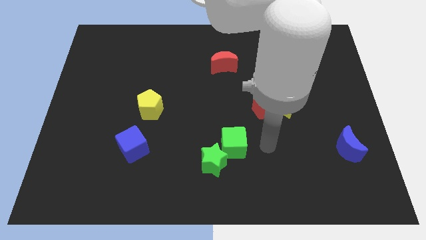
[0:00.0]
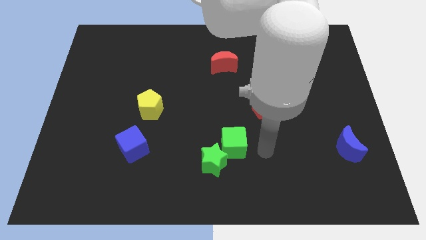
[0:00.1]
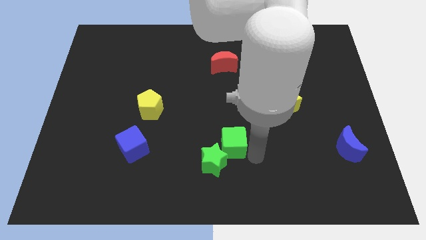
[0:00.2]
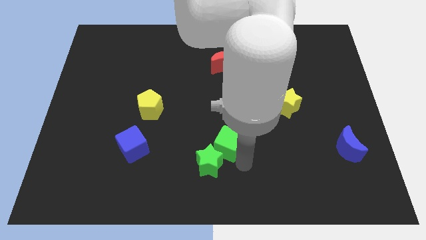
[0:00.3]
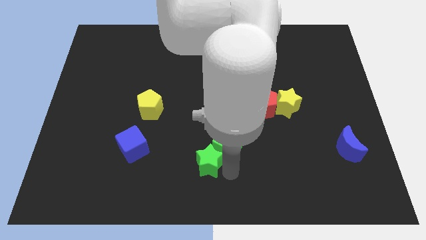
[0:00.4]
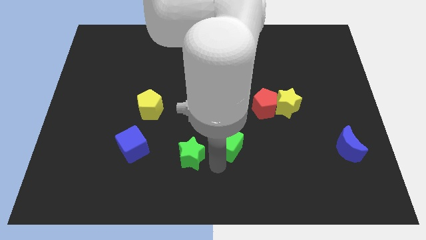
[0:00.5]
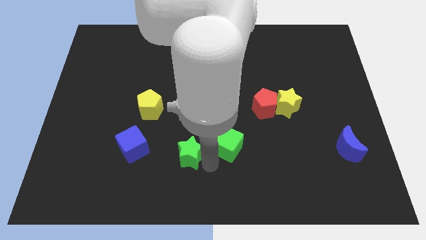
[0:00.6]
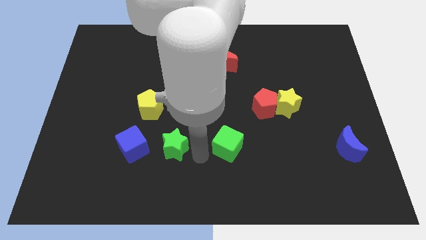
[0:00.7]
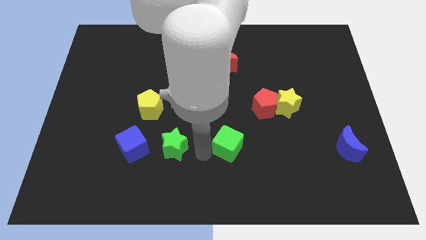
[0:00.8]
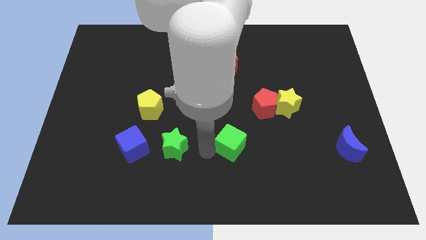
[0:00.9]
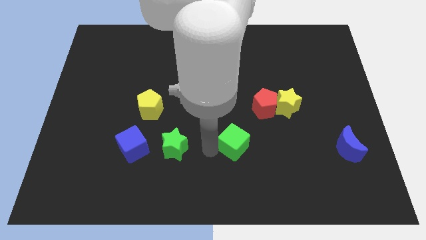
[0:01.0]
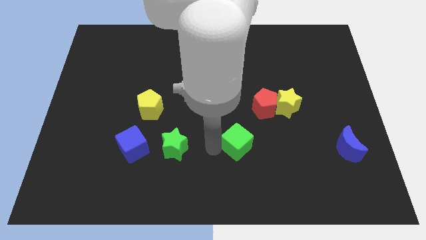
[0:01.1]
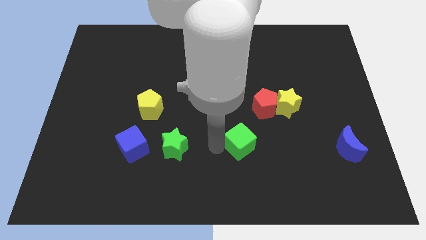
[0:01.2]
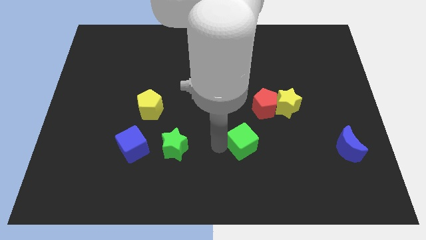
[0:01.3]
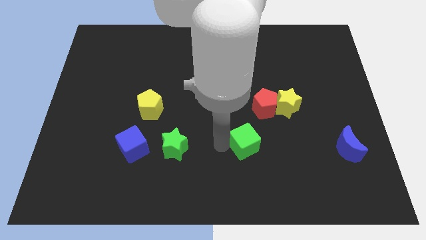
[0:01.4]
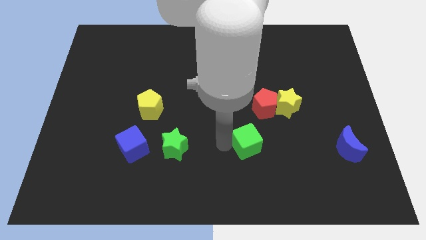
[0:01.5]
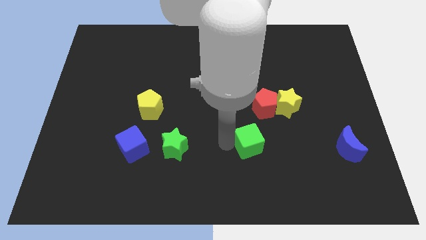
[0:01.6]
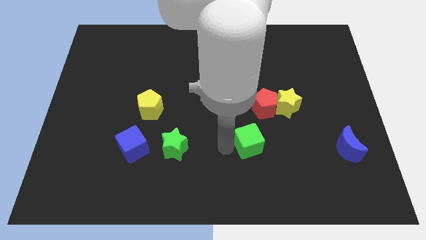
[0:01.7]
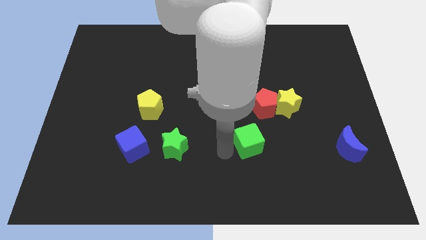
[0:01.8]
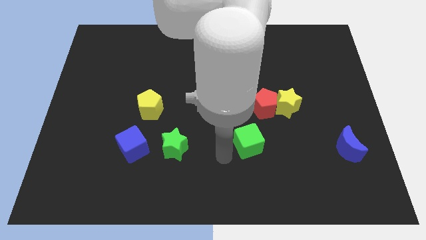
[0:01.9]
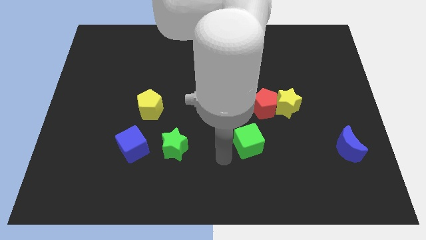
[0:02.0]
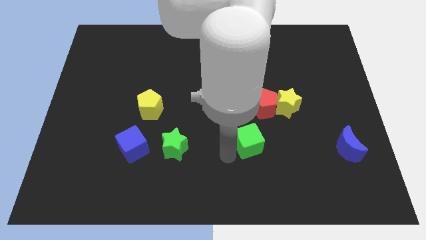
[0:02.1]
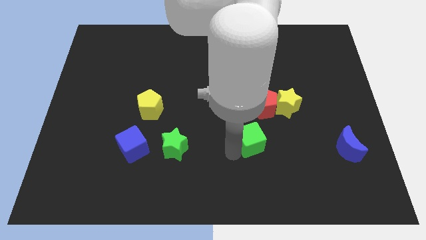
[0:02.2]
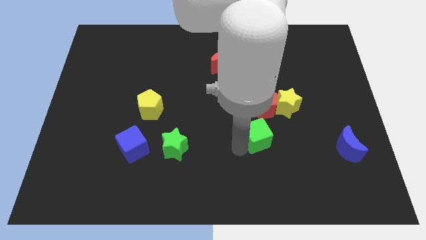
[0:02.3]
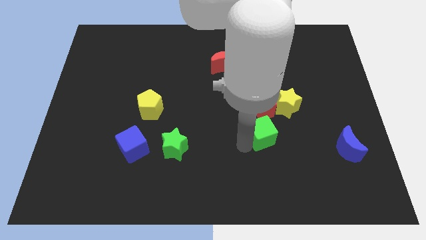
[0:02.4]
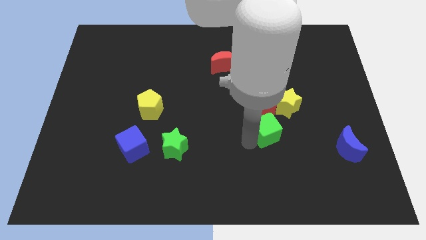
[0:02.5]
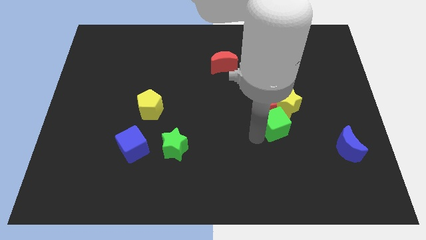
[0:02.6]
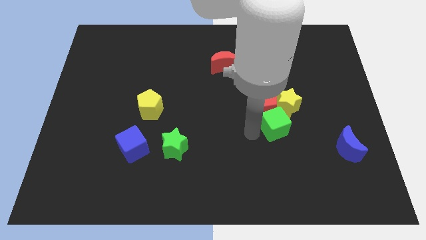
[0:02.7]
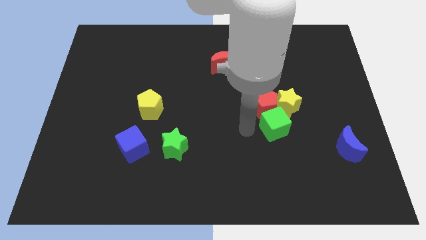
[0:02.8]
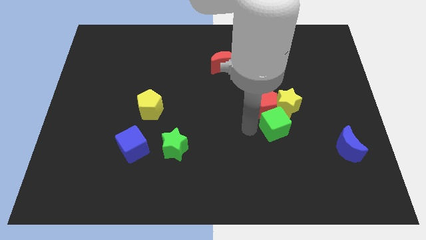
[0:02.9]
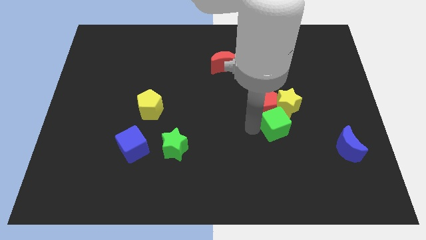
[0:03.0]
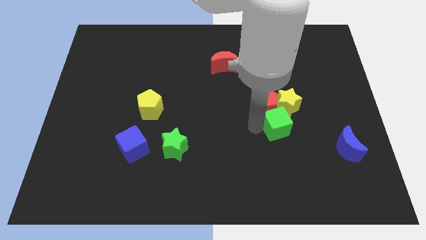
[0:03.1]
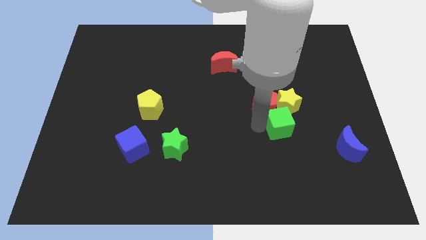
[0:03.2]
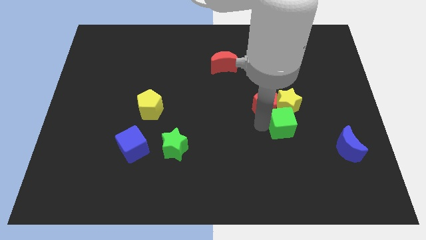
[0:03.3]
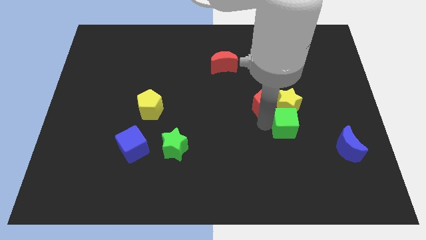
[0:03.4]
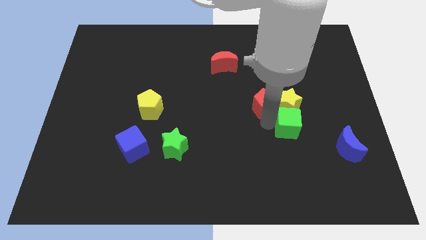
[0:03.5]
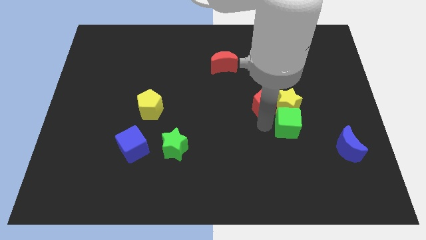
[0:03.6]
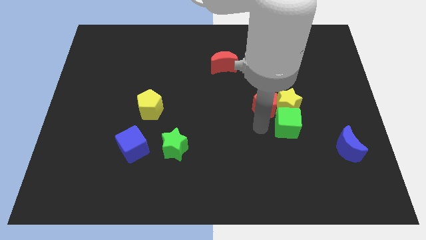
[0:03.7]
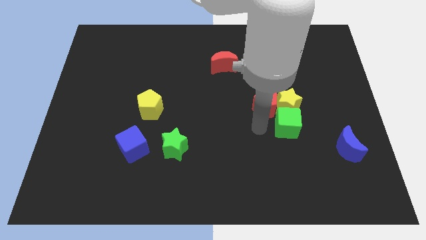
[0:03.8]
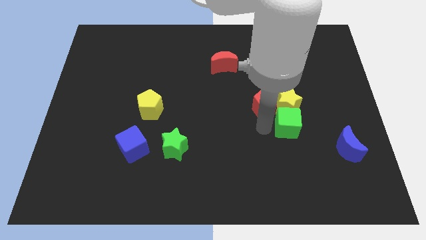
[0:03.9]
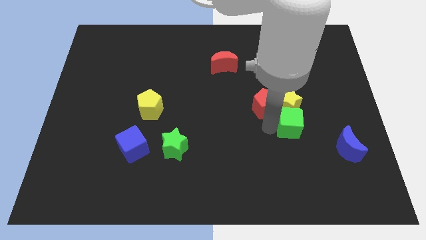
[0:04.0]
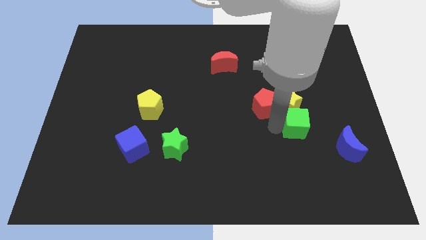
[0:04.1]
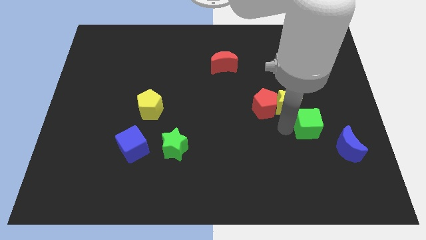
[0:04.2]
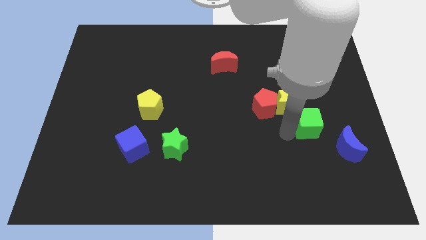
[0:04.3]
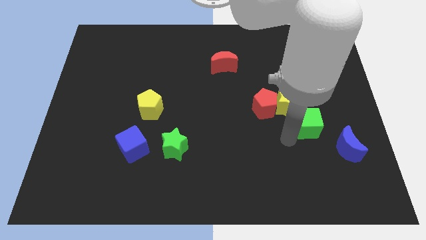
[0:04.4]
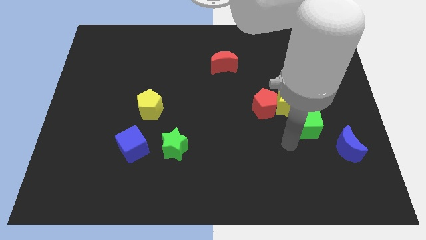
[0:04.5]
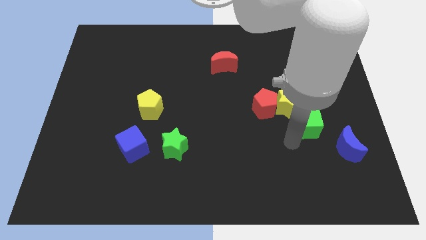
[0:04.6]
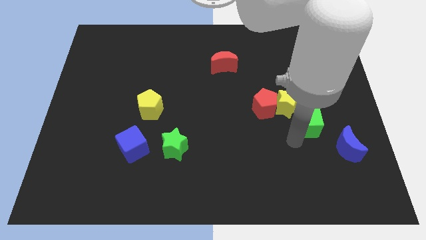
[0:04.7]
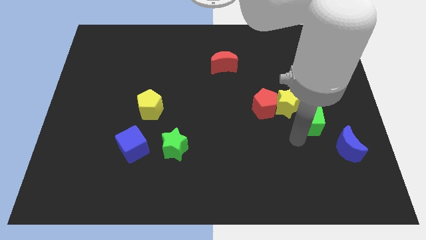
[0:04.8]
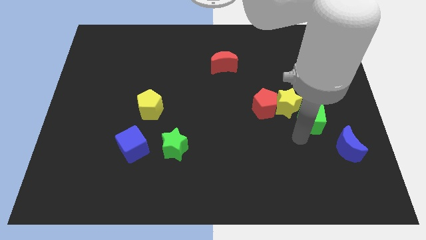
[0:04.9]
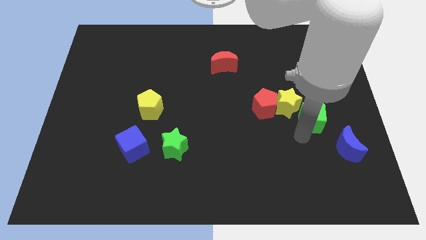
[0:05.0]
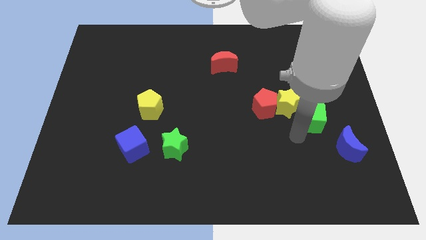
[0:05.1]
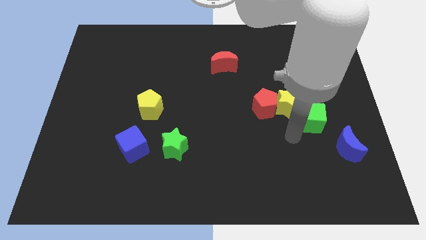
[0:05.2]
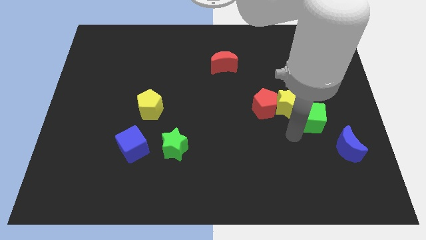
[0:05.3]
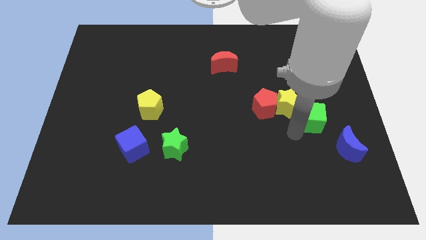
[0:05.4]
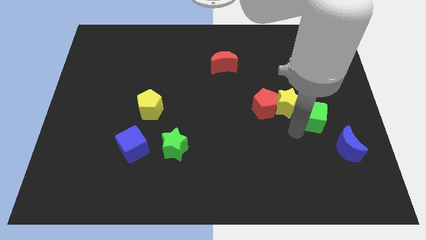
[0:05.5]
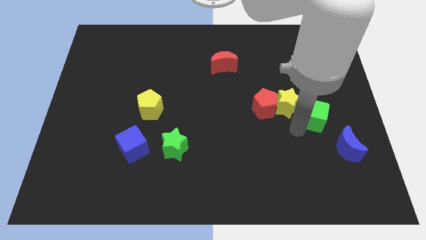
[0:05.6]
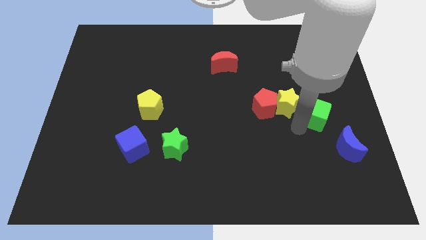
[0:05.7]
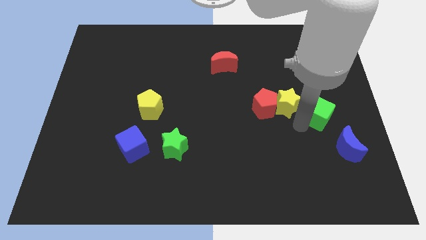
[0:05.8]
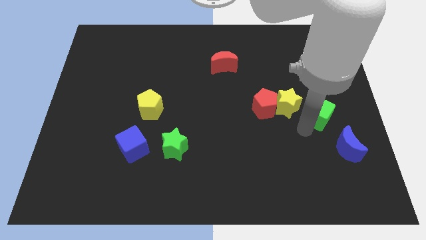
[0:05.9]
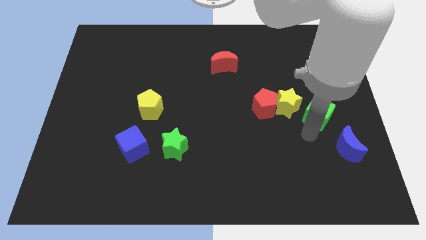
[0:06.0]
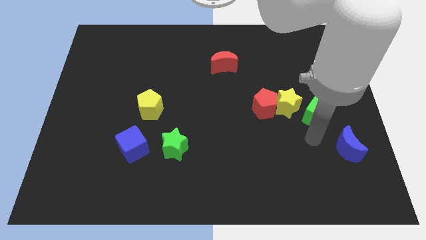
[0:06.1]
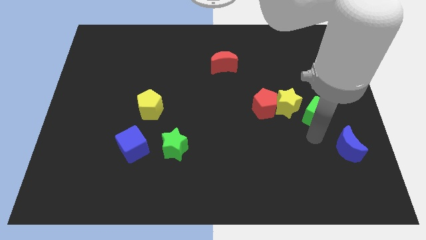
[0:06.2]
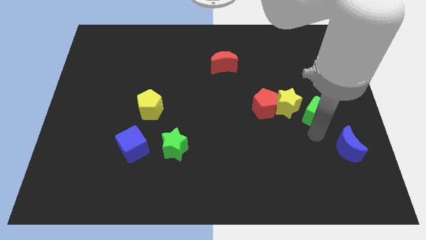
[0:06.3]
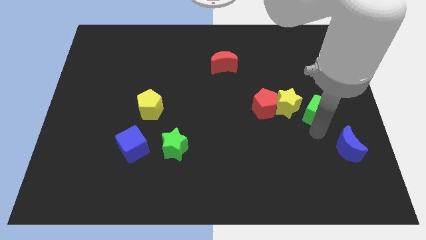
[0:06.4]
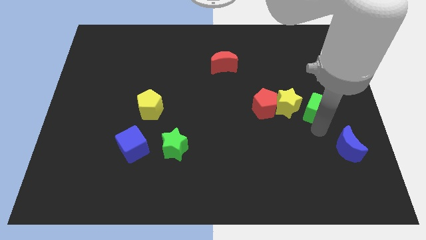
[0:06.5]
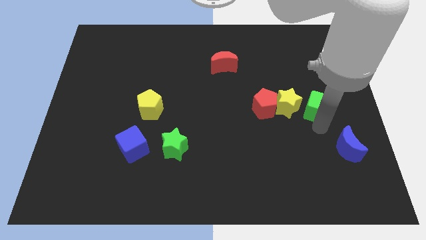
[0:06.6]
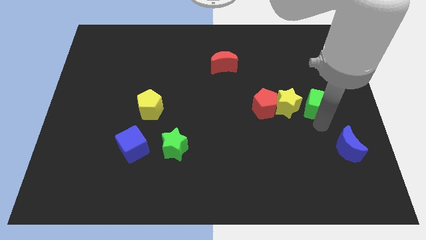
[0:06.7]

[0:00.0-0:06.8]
move the green cube upwards and then right

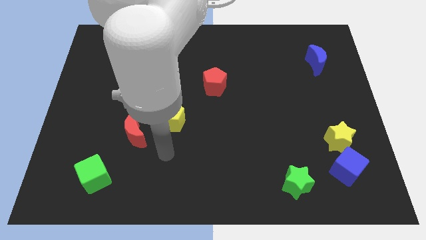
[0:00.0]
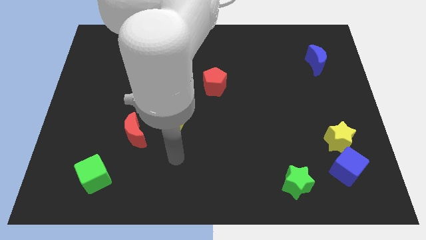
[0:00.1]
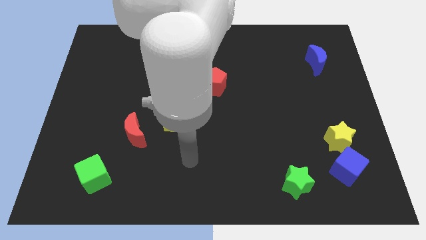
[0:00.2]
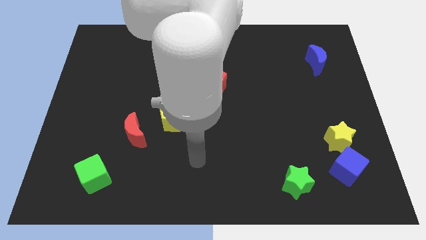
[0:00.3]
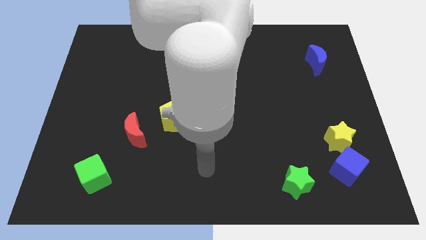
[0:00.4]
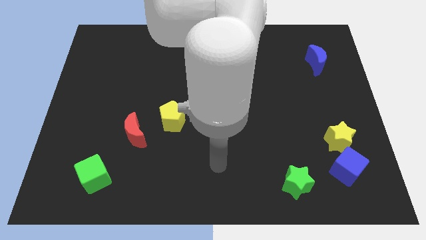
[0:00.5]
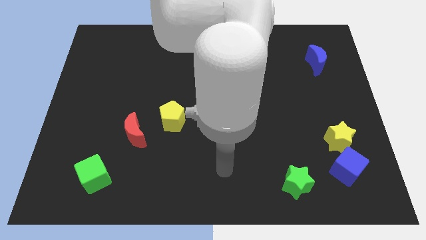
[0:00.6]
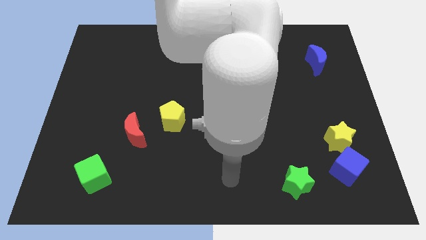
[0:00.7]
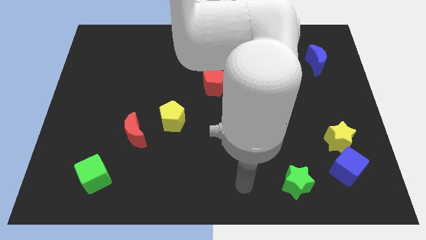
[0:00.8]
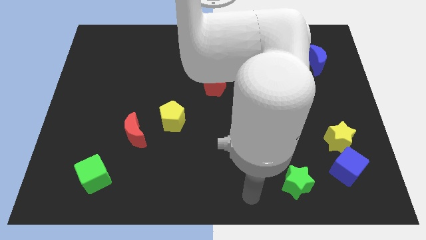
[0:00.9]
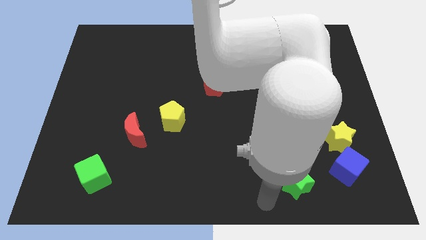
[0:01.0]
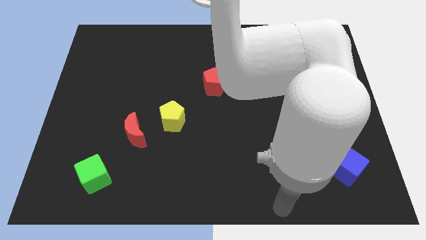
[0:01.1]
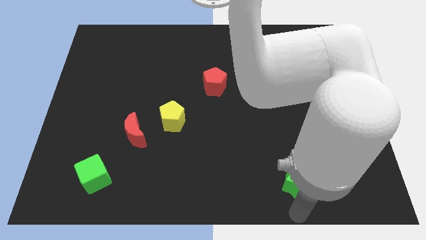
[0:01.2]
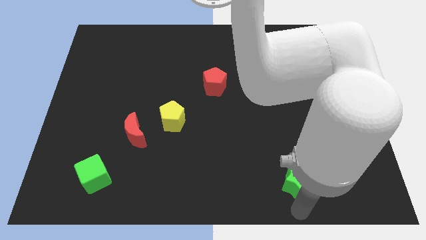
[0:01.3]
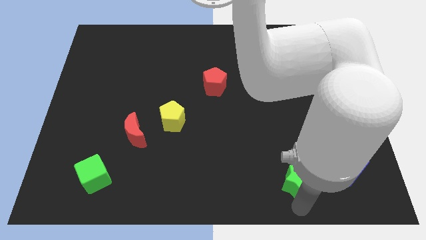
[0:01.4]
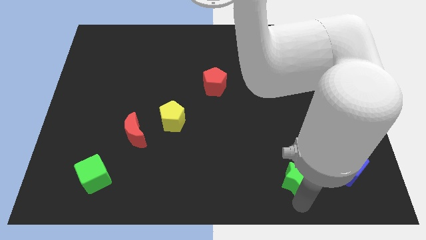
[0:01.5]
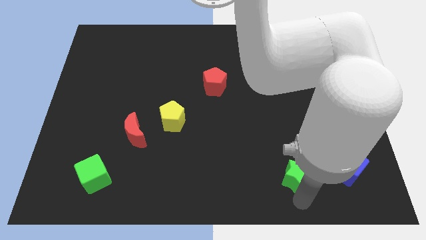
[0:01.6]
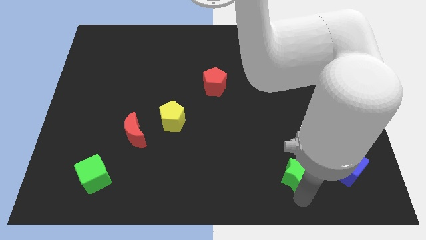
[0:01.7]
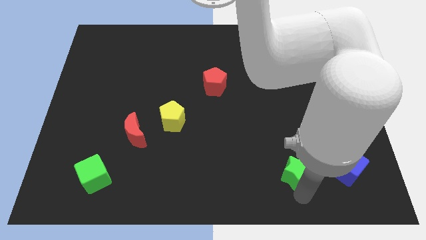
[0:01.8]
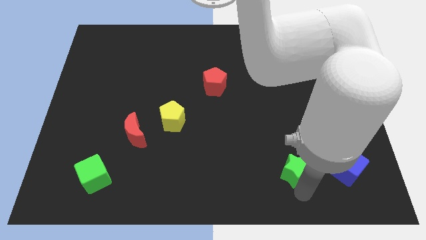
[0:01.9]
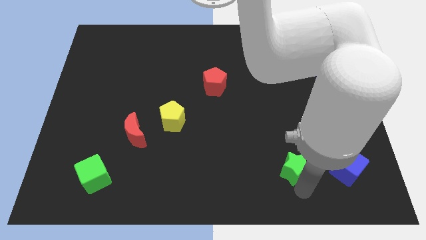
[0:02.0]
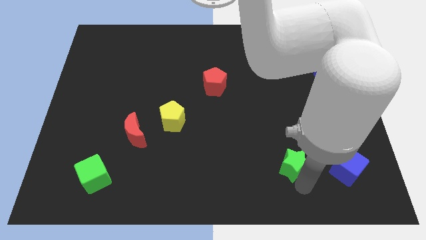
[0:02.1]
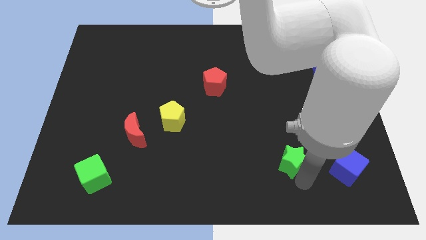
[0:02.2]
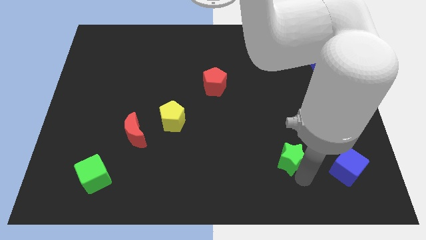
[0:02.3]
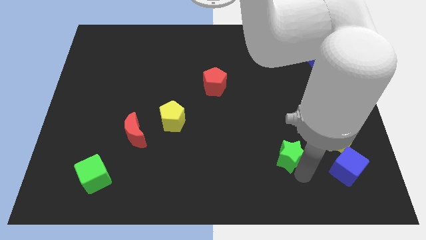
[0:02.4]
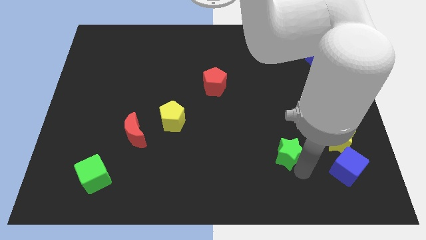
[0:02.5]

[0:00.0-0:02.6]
move the green star slightly upwards
